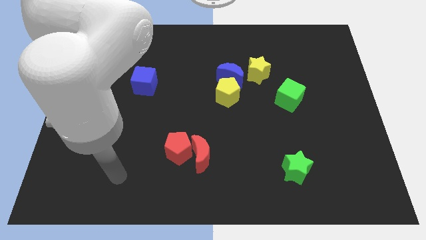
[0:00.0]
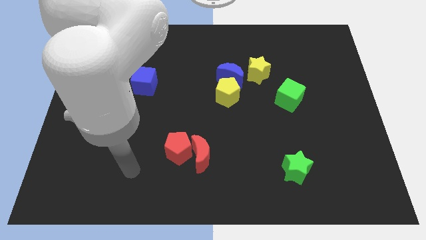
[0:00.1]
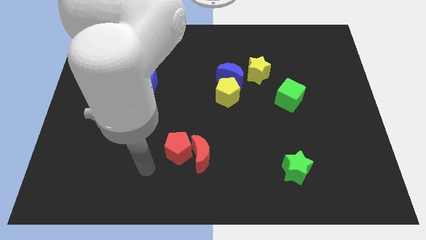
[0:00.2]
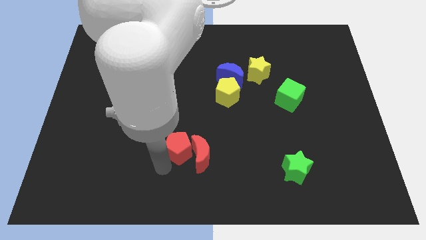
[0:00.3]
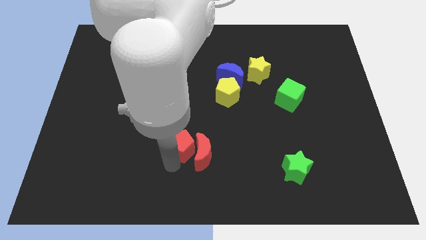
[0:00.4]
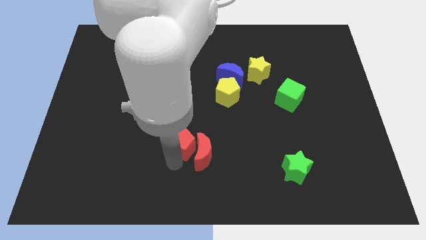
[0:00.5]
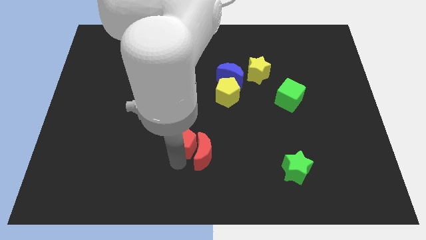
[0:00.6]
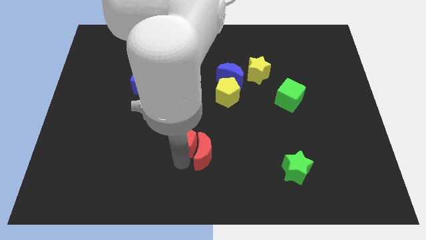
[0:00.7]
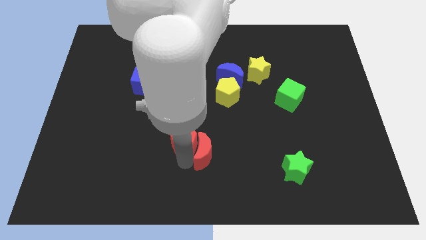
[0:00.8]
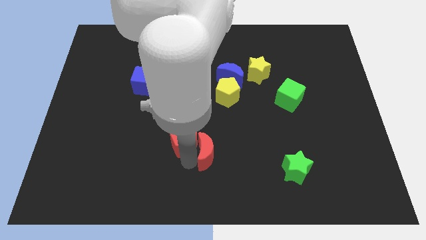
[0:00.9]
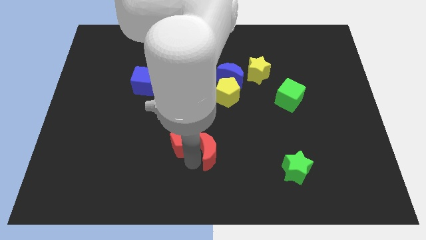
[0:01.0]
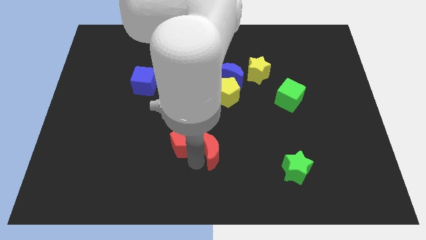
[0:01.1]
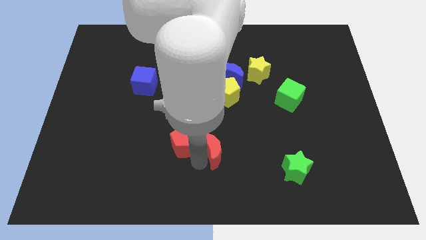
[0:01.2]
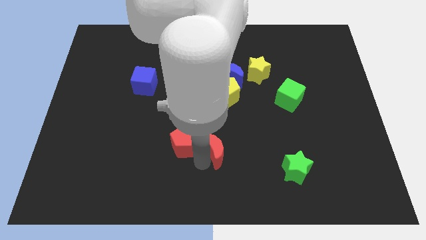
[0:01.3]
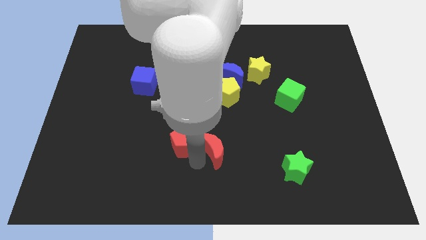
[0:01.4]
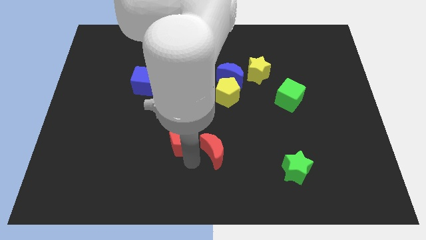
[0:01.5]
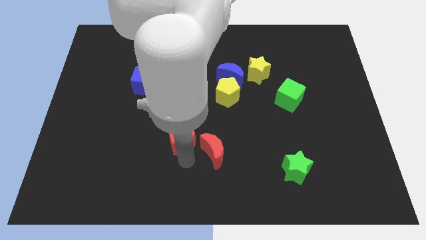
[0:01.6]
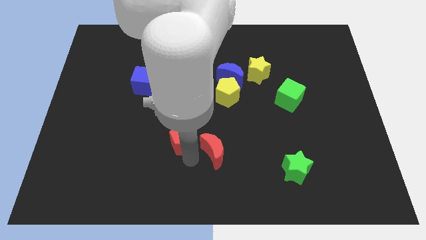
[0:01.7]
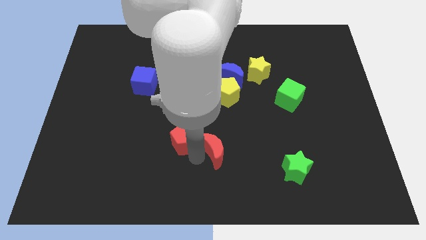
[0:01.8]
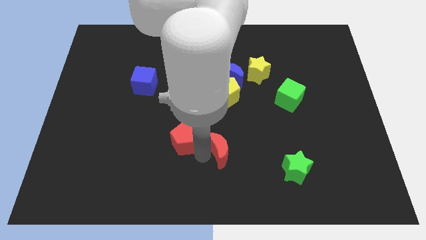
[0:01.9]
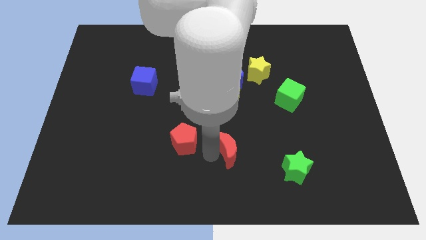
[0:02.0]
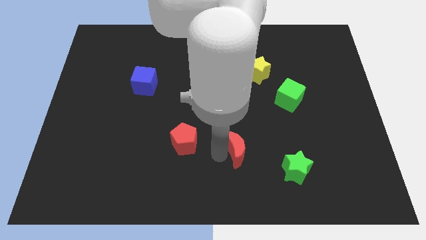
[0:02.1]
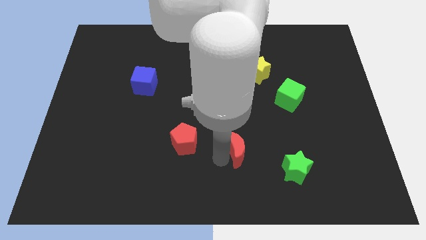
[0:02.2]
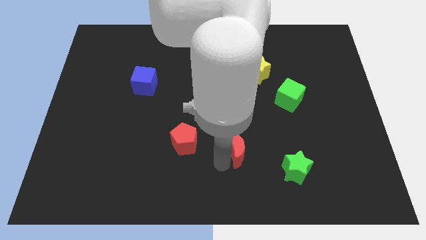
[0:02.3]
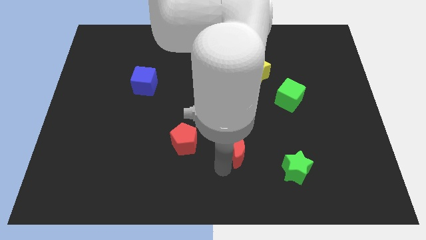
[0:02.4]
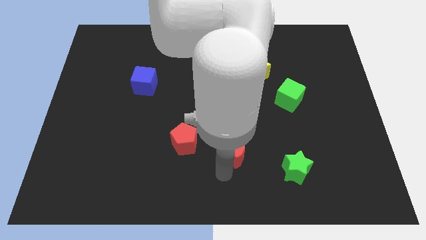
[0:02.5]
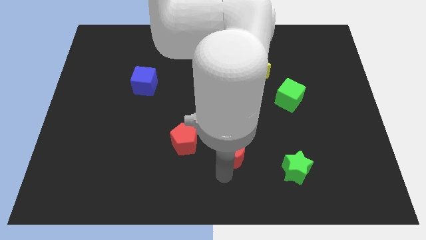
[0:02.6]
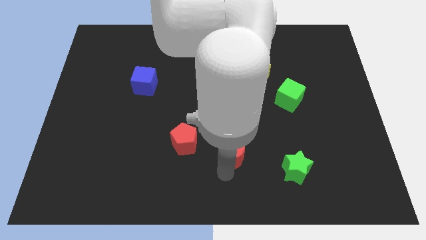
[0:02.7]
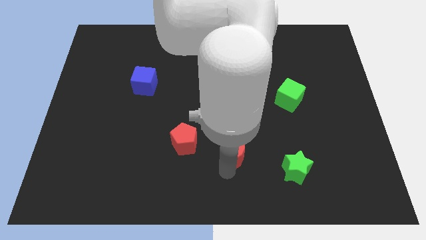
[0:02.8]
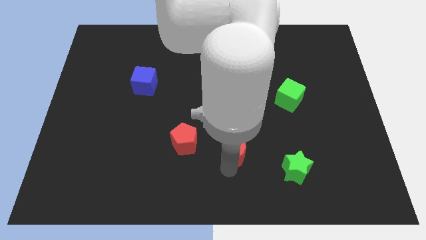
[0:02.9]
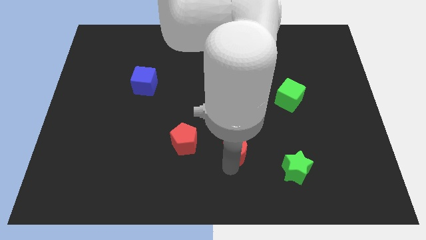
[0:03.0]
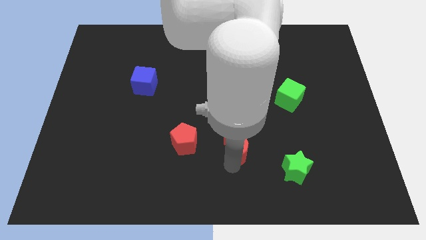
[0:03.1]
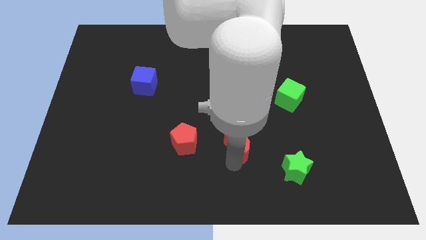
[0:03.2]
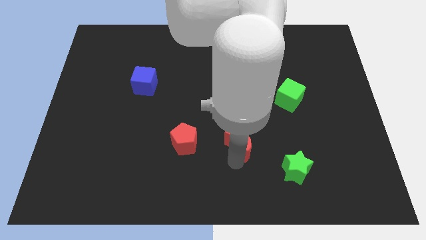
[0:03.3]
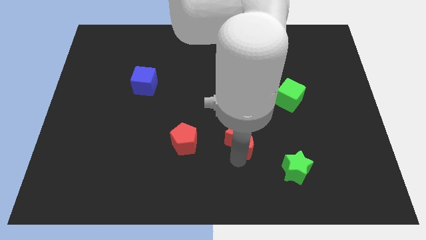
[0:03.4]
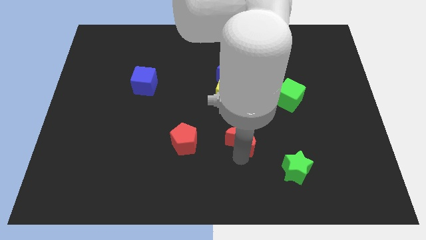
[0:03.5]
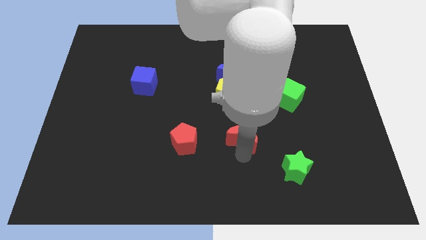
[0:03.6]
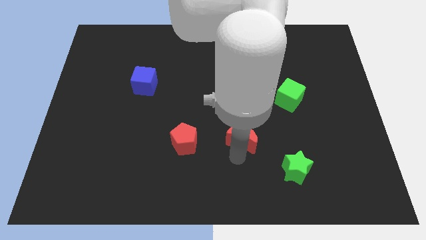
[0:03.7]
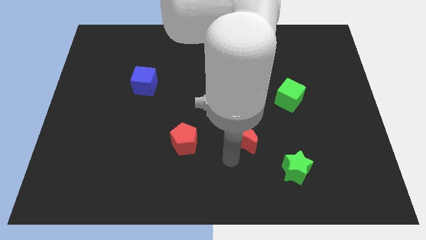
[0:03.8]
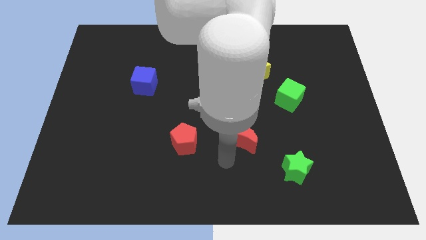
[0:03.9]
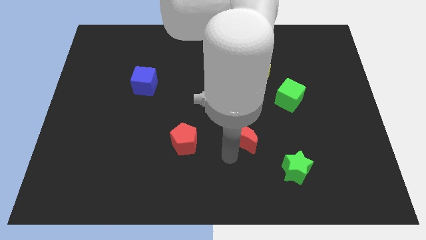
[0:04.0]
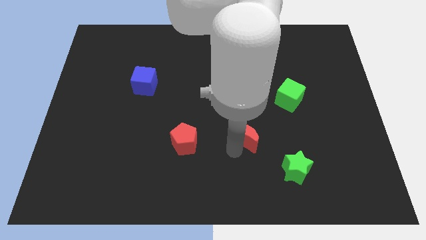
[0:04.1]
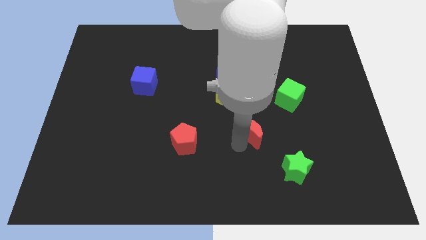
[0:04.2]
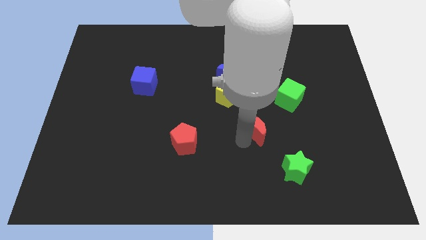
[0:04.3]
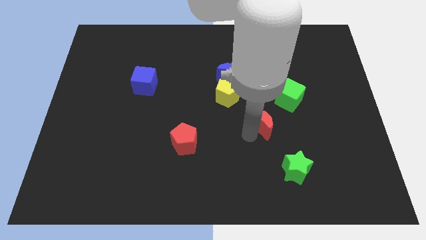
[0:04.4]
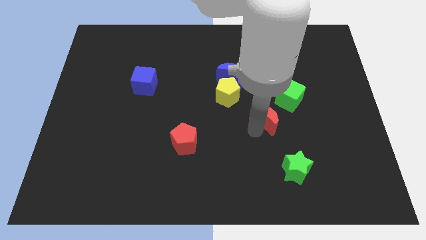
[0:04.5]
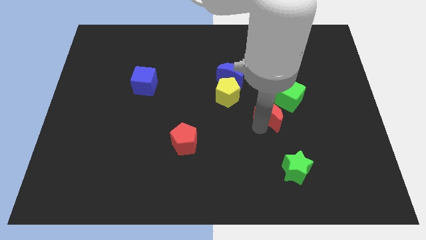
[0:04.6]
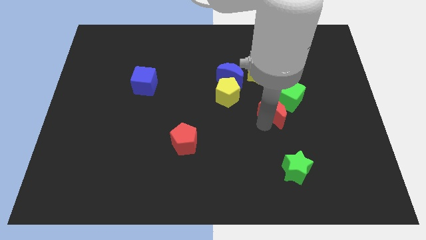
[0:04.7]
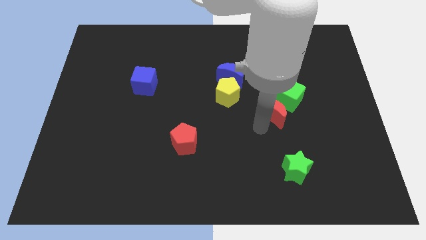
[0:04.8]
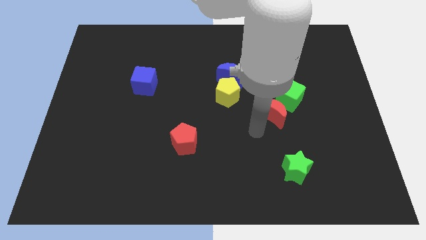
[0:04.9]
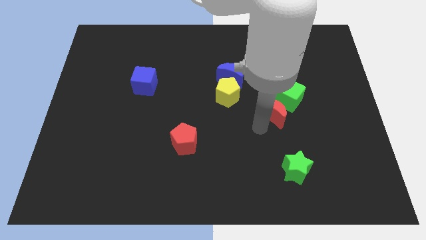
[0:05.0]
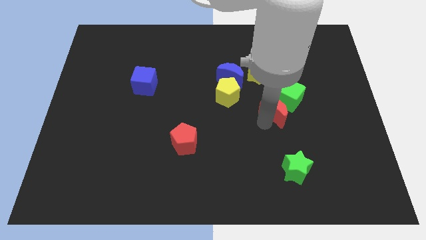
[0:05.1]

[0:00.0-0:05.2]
push the red moon close to the green cube

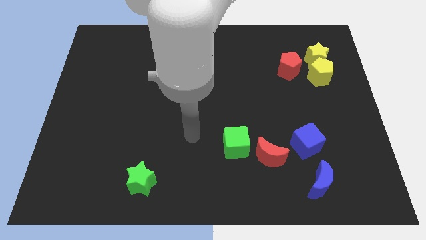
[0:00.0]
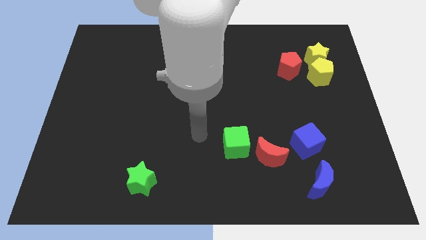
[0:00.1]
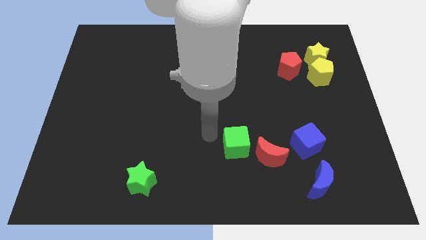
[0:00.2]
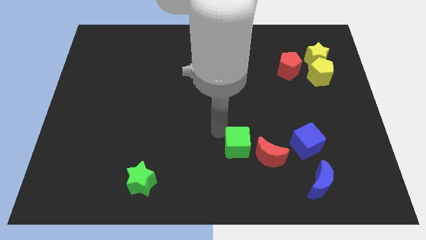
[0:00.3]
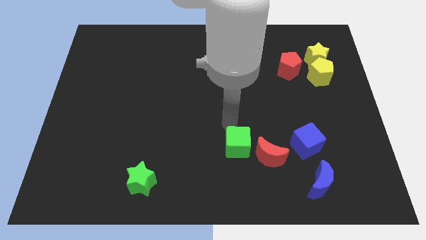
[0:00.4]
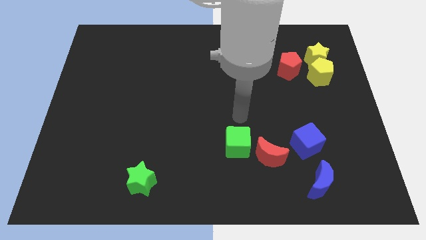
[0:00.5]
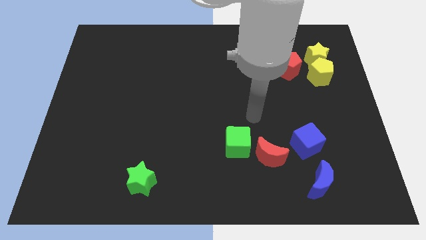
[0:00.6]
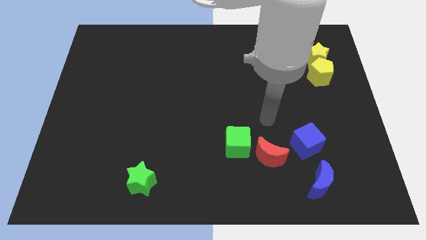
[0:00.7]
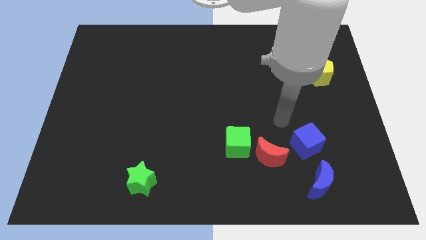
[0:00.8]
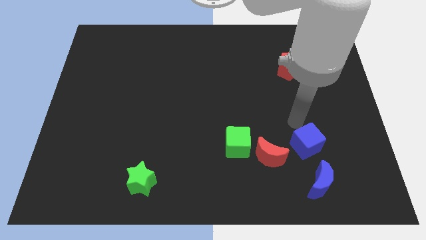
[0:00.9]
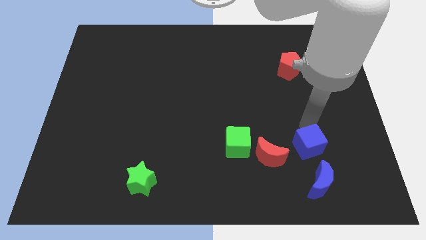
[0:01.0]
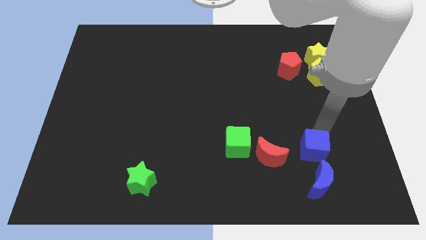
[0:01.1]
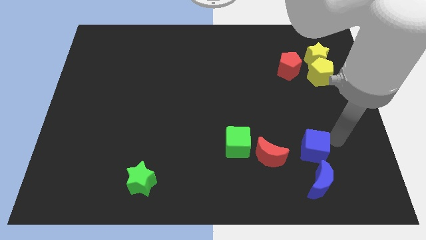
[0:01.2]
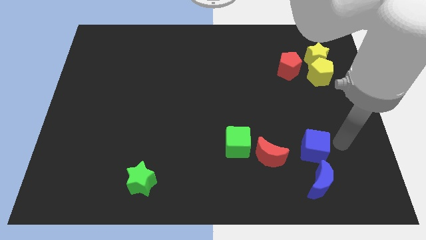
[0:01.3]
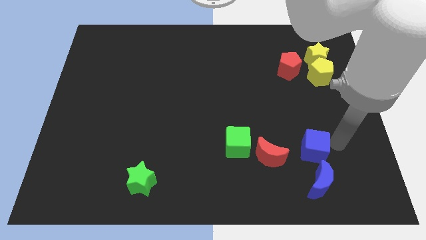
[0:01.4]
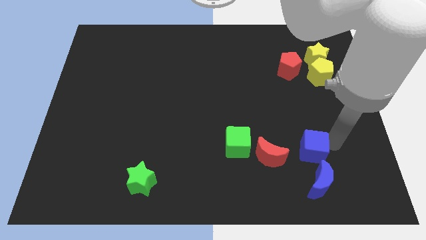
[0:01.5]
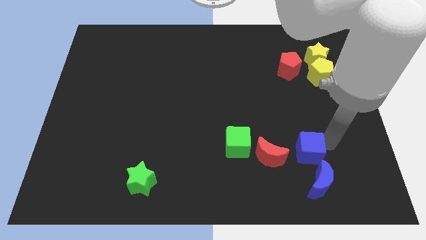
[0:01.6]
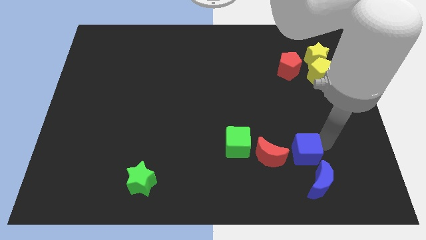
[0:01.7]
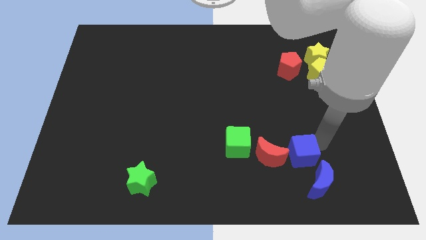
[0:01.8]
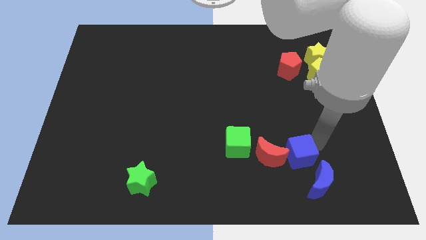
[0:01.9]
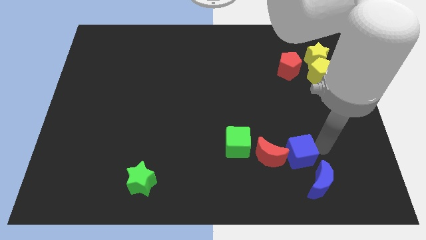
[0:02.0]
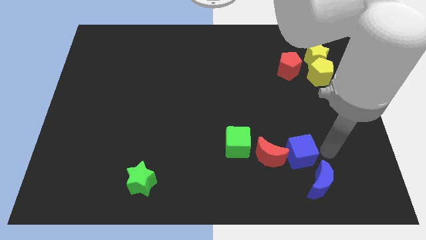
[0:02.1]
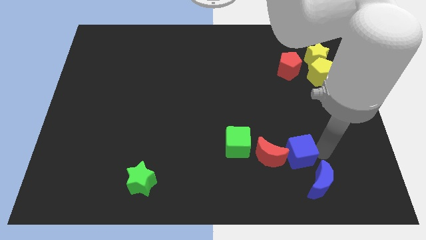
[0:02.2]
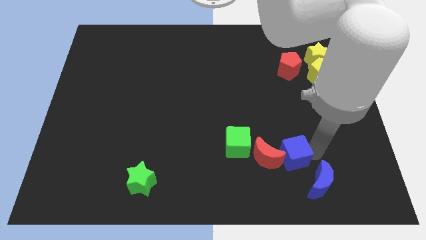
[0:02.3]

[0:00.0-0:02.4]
move the blue cube towards the red moon
